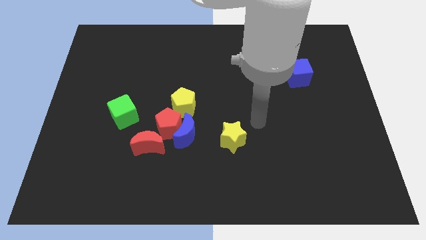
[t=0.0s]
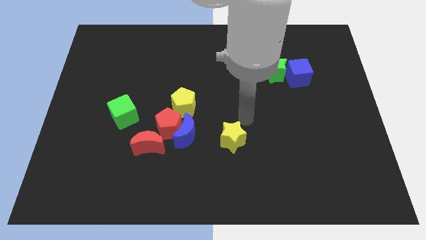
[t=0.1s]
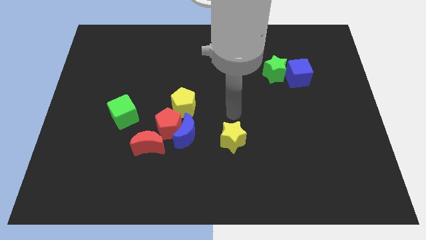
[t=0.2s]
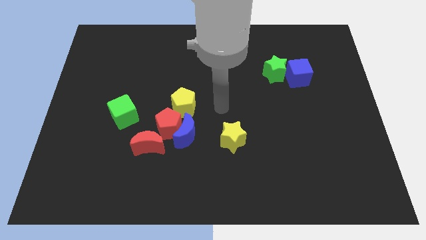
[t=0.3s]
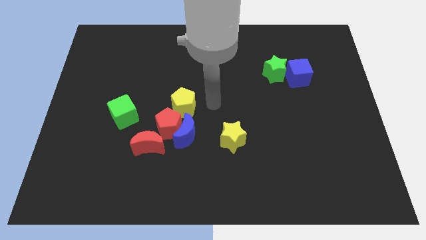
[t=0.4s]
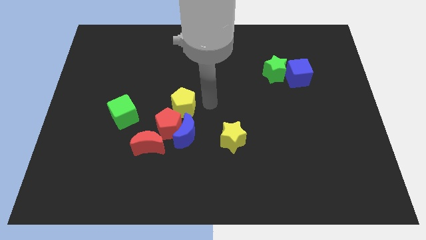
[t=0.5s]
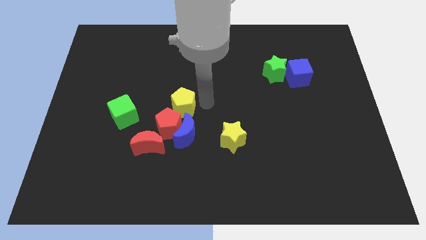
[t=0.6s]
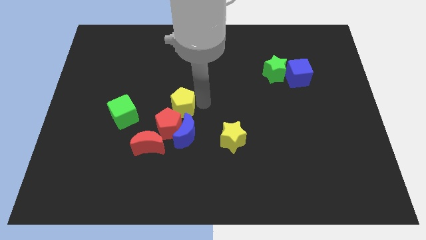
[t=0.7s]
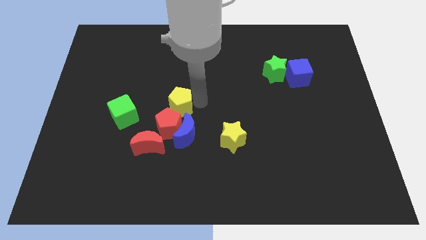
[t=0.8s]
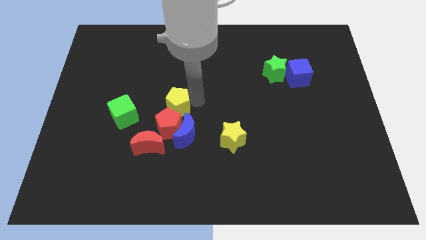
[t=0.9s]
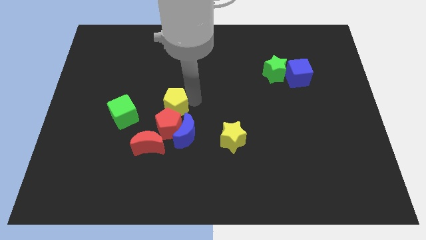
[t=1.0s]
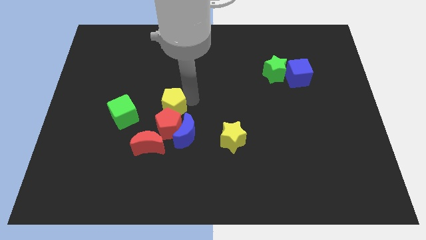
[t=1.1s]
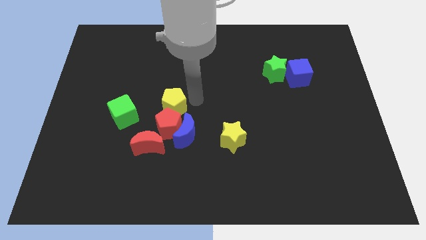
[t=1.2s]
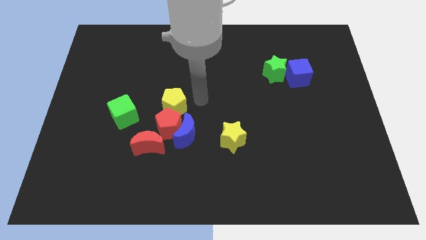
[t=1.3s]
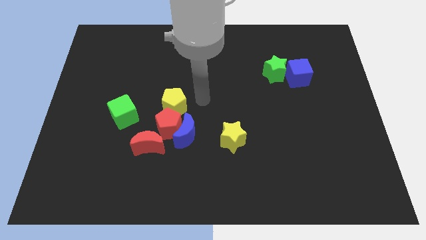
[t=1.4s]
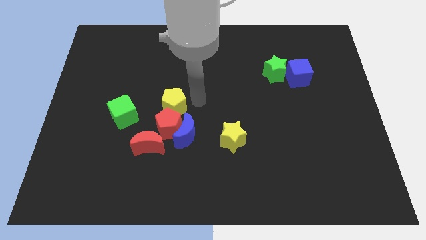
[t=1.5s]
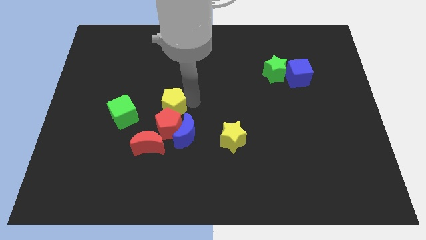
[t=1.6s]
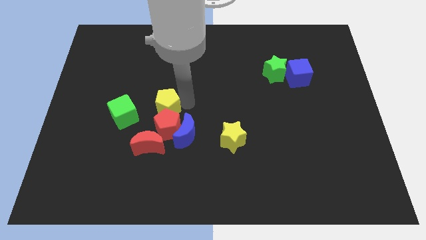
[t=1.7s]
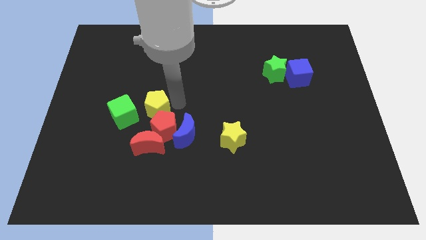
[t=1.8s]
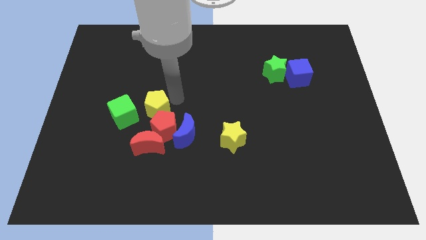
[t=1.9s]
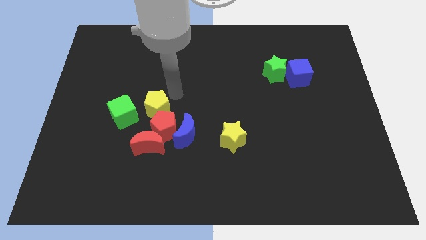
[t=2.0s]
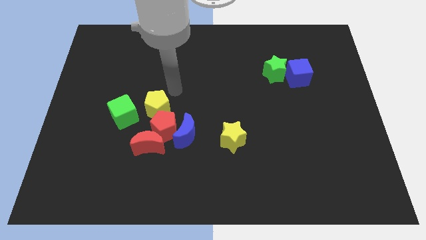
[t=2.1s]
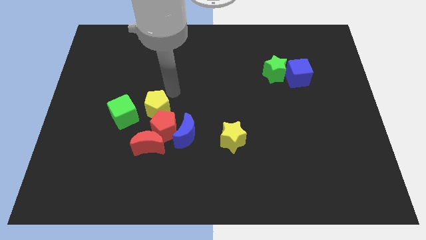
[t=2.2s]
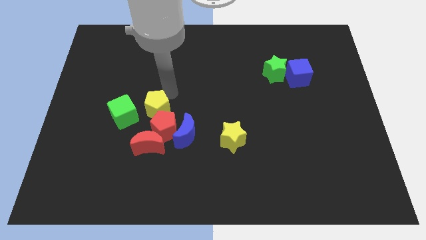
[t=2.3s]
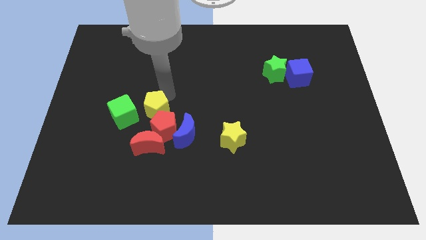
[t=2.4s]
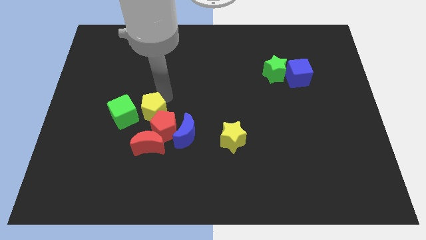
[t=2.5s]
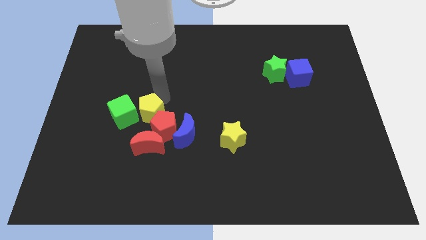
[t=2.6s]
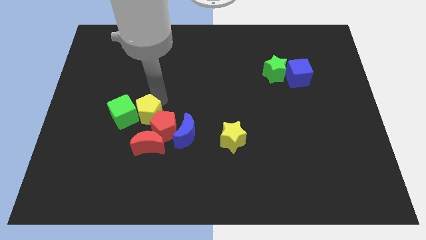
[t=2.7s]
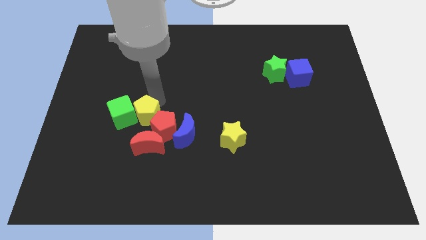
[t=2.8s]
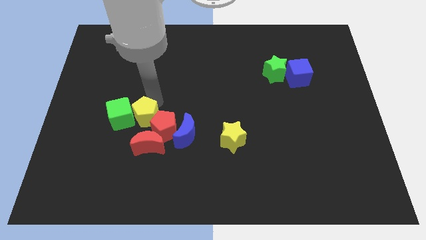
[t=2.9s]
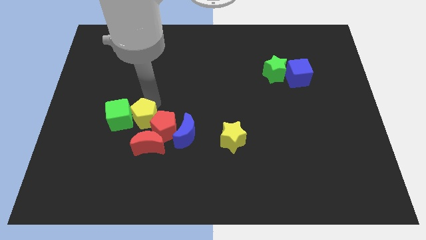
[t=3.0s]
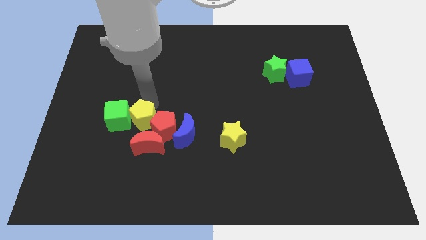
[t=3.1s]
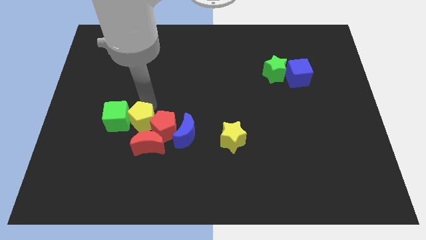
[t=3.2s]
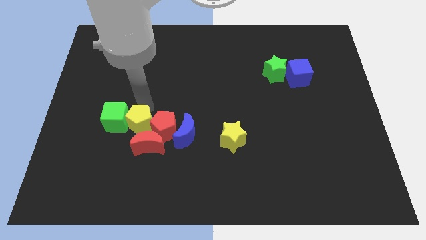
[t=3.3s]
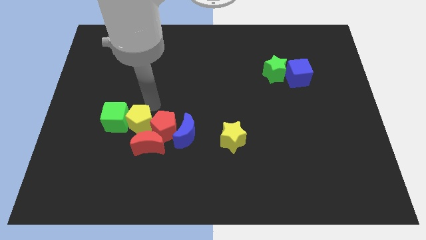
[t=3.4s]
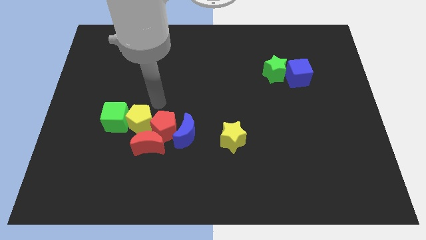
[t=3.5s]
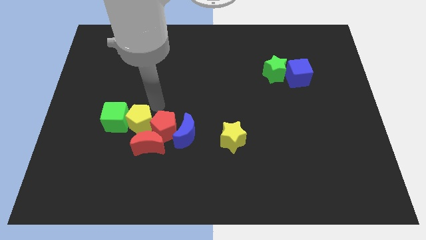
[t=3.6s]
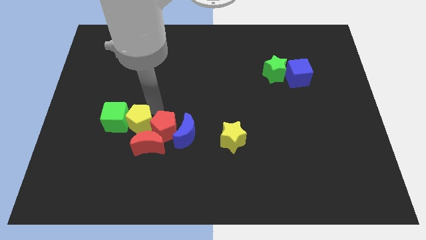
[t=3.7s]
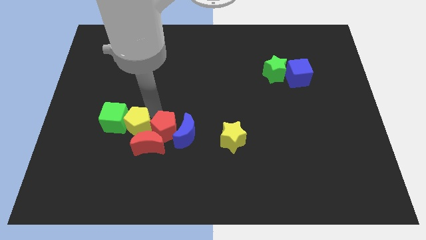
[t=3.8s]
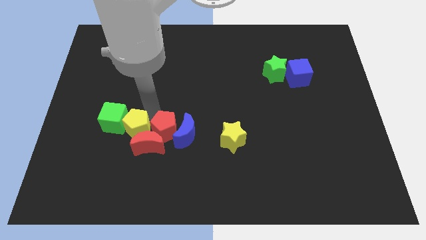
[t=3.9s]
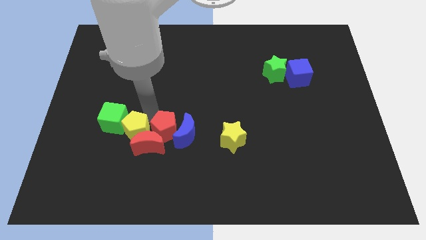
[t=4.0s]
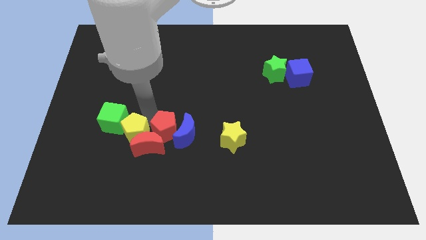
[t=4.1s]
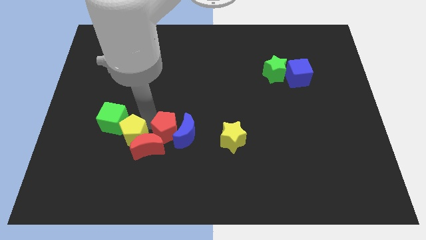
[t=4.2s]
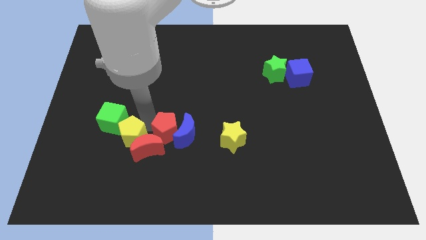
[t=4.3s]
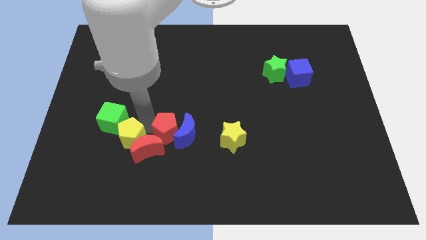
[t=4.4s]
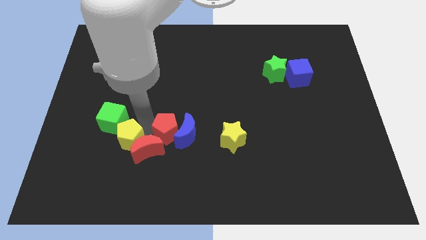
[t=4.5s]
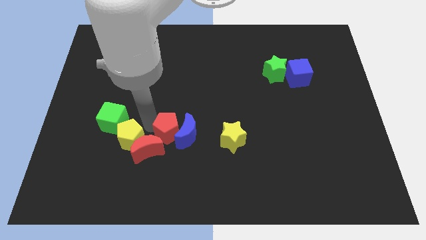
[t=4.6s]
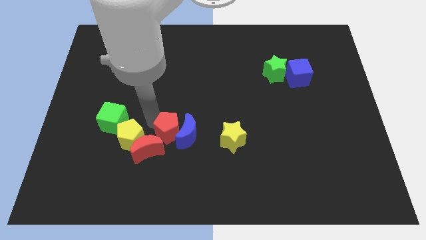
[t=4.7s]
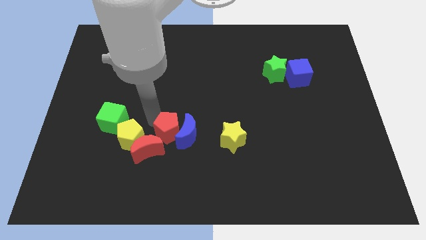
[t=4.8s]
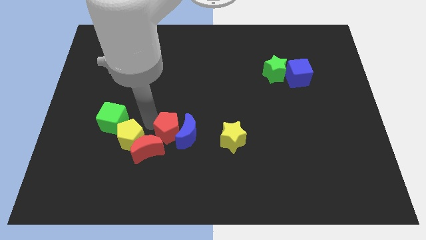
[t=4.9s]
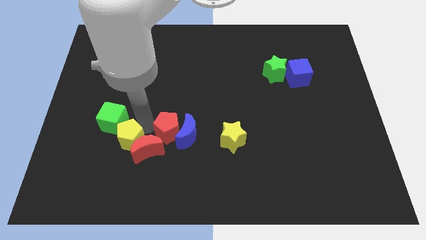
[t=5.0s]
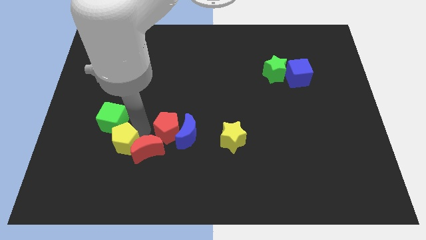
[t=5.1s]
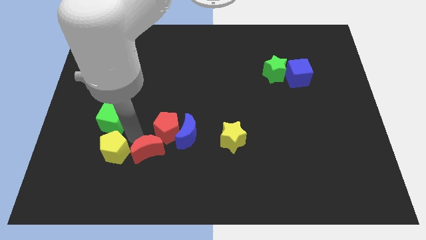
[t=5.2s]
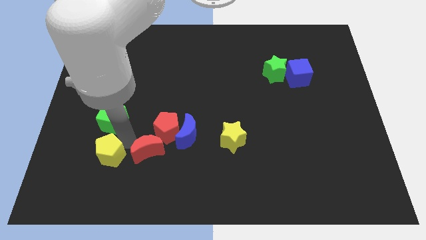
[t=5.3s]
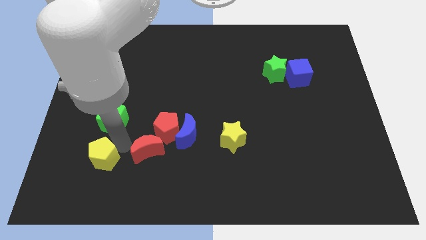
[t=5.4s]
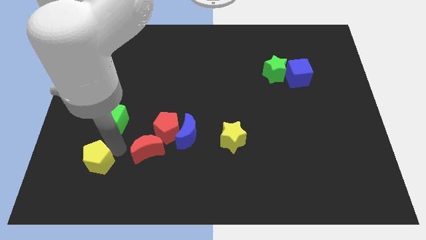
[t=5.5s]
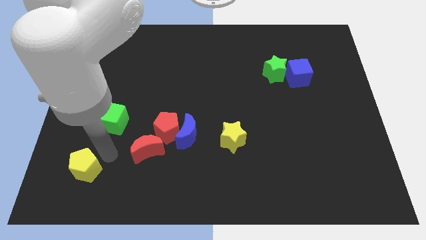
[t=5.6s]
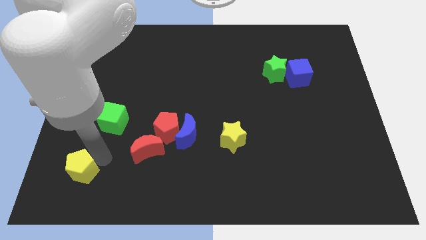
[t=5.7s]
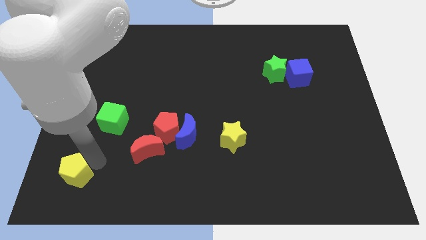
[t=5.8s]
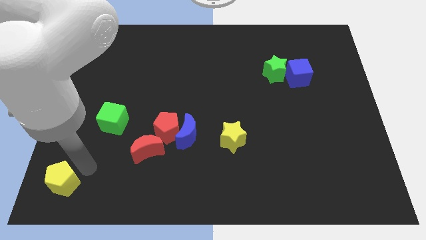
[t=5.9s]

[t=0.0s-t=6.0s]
push the yellow pentagon to the bottom left of the board
